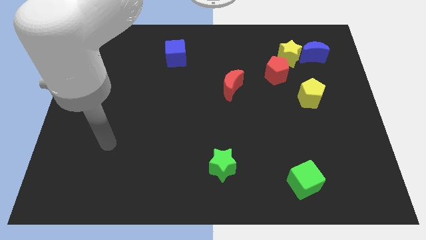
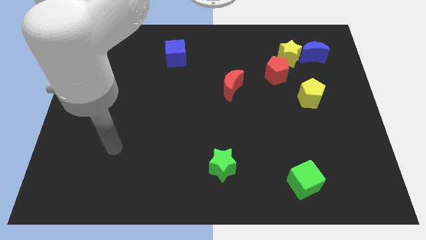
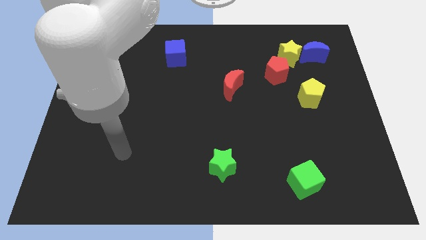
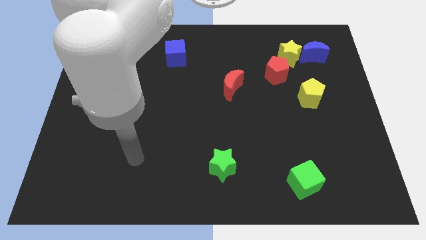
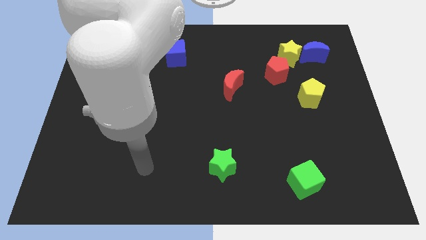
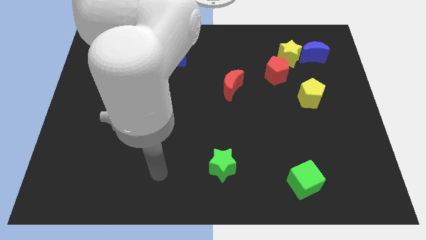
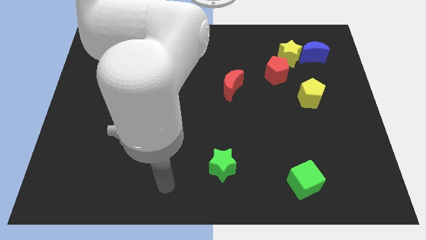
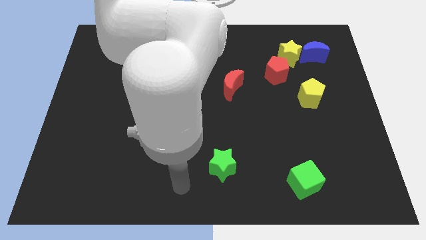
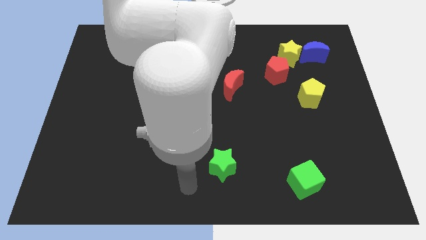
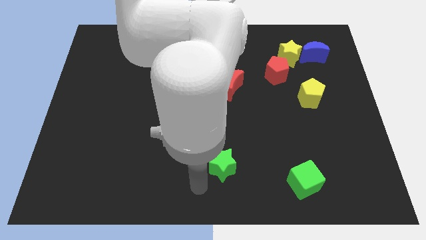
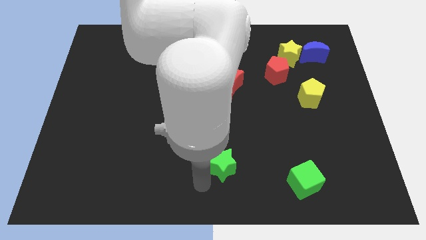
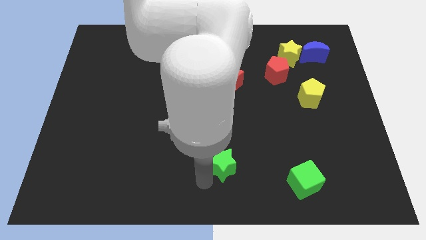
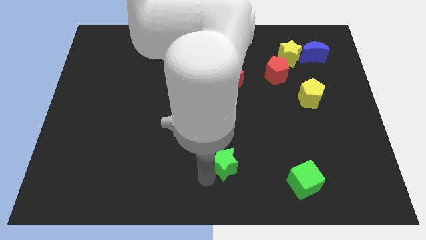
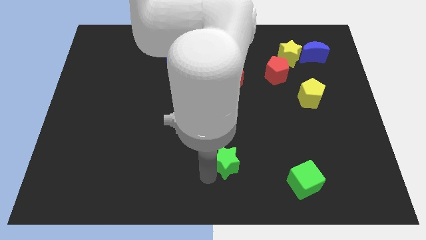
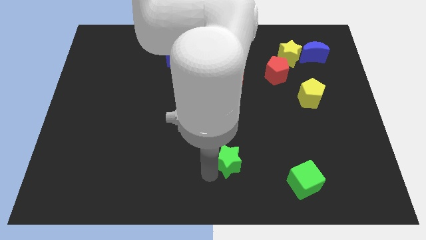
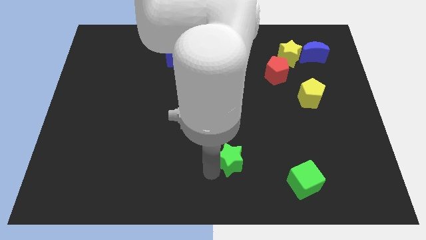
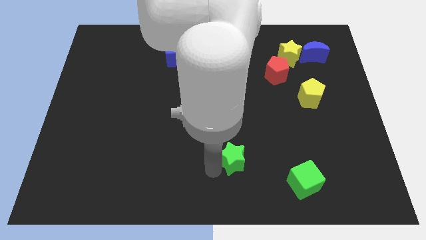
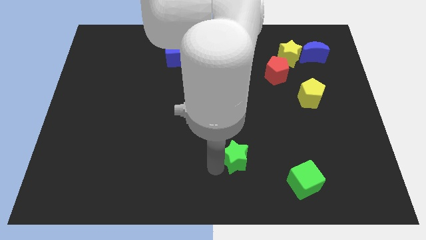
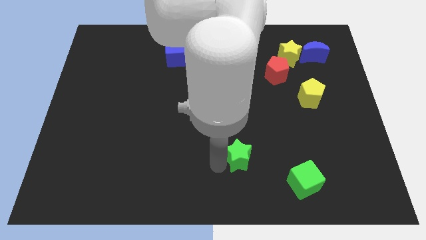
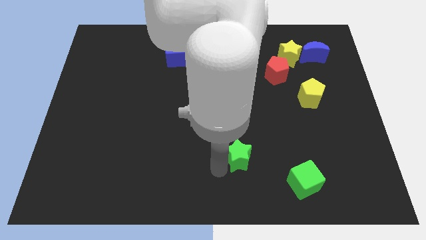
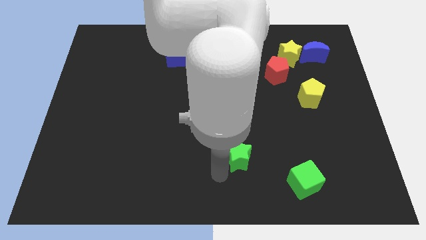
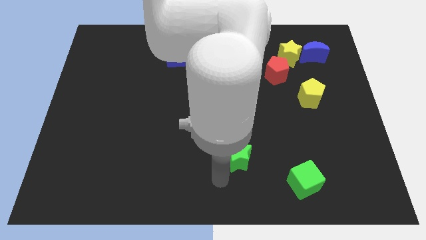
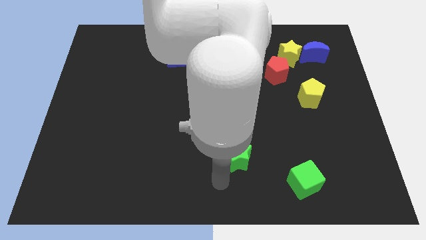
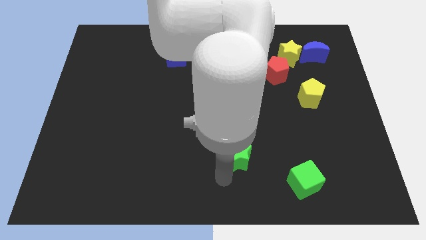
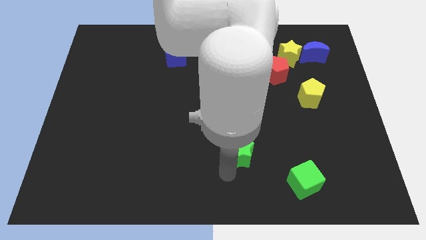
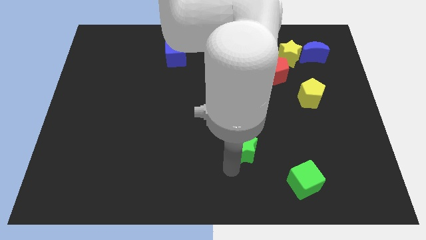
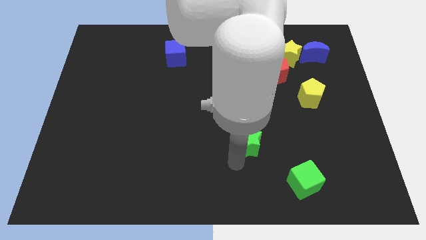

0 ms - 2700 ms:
slide the green star up and to the right slightly

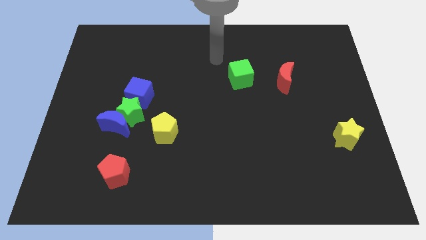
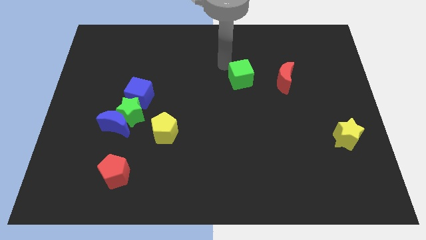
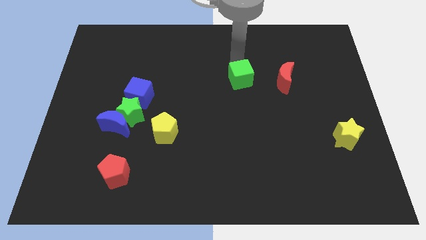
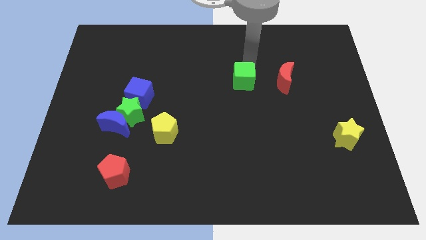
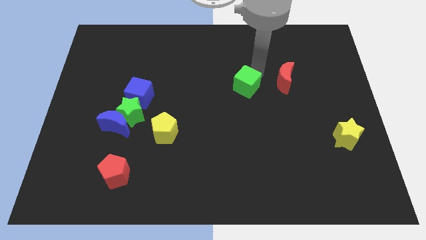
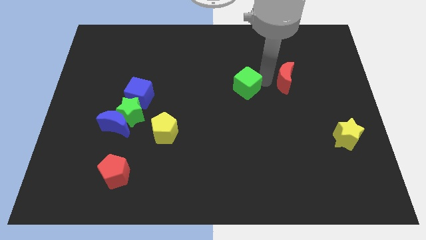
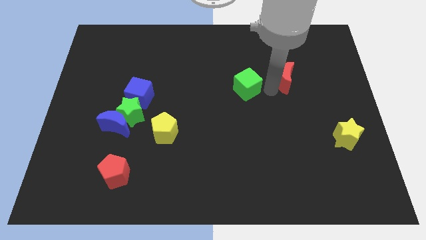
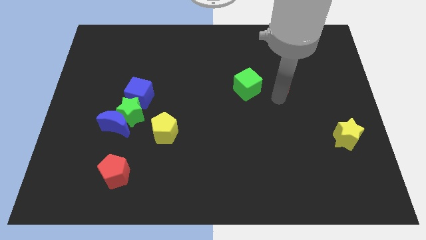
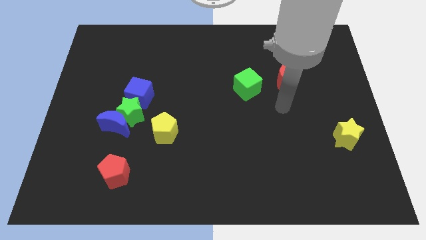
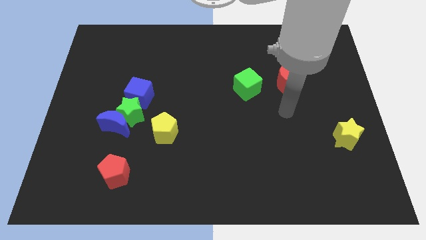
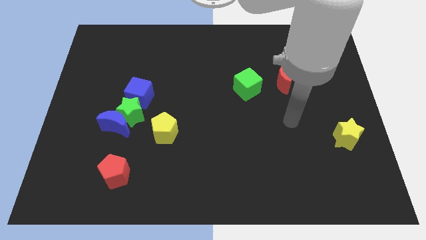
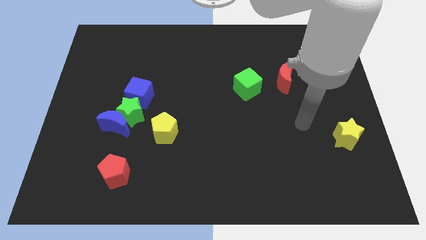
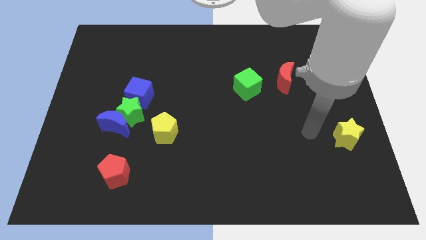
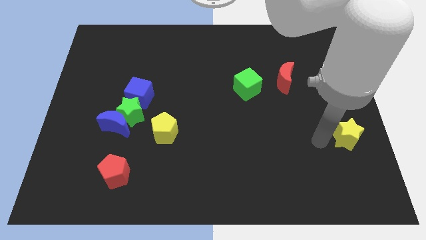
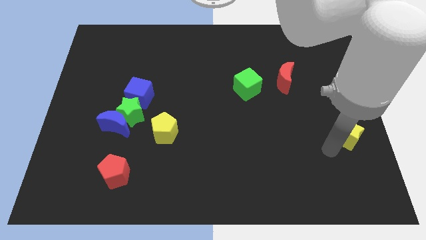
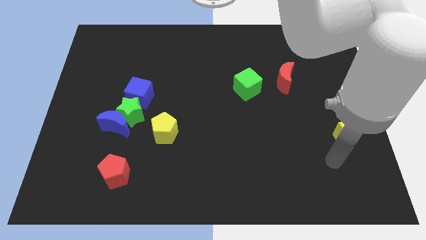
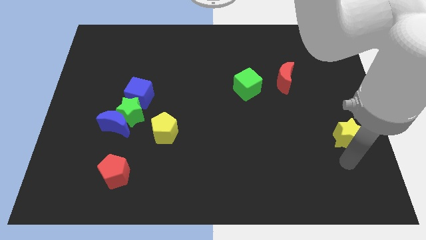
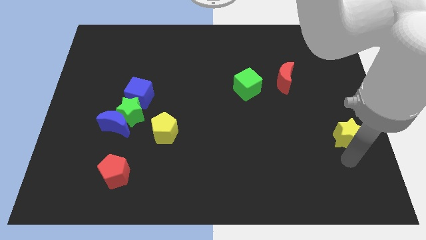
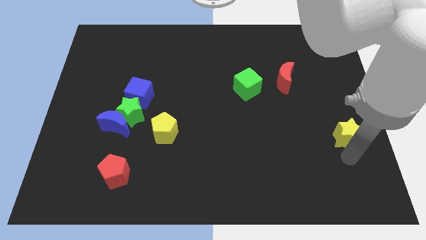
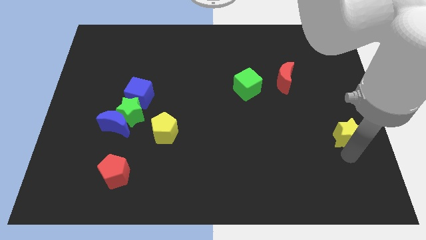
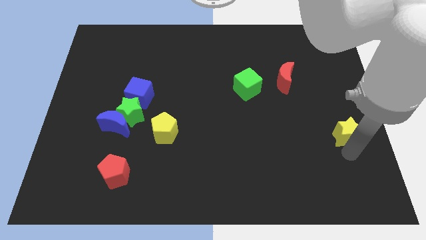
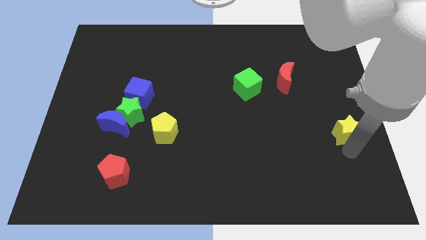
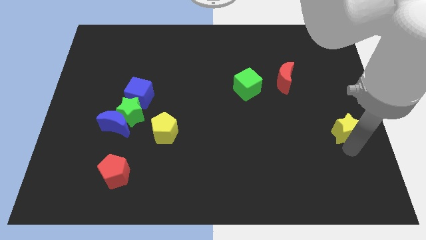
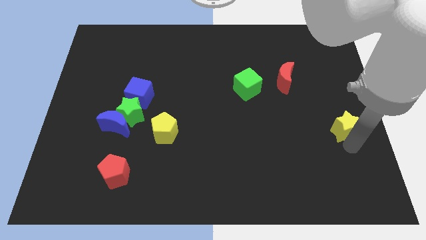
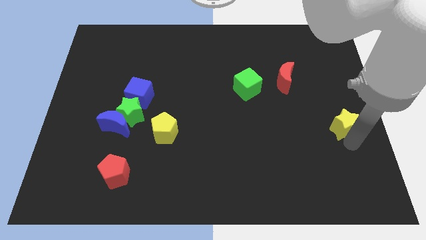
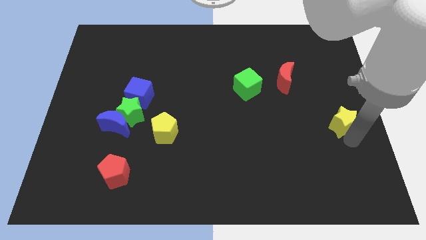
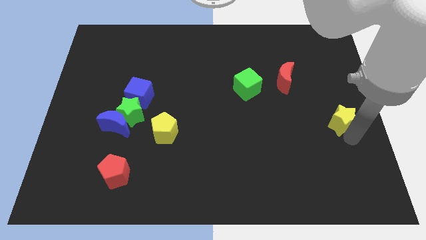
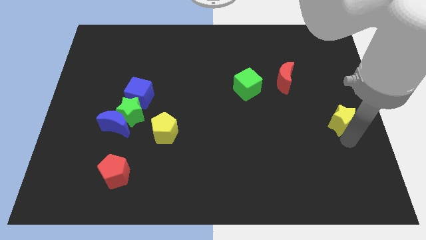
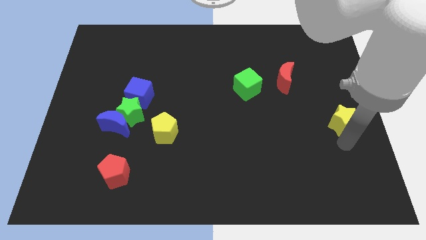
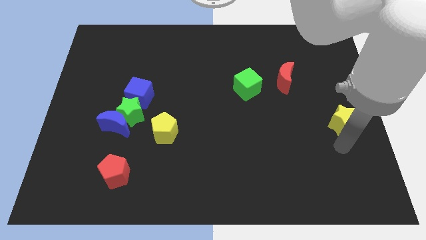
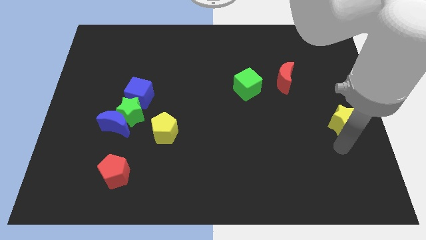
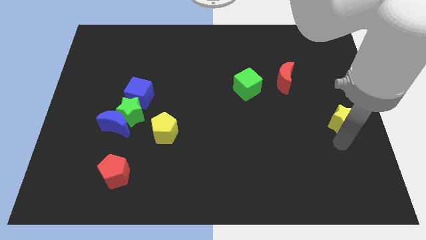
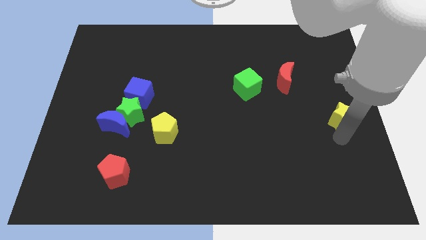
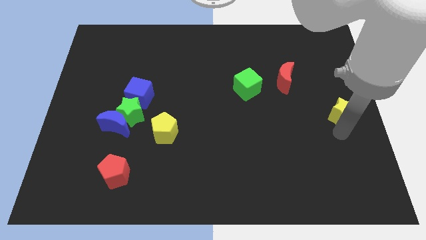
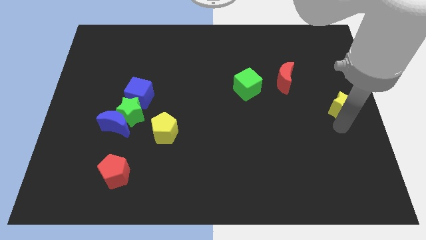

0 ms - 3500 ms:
push the yellow star upwards a little bit

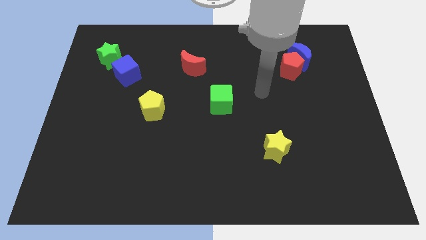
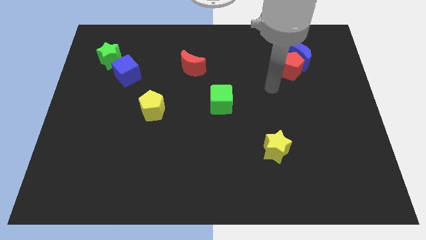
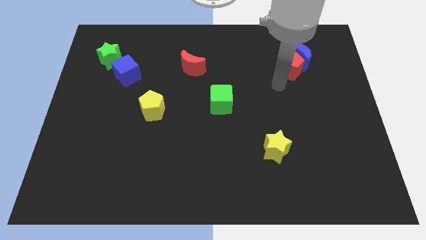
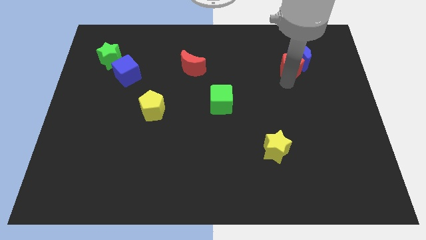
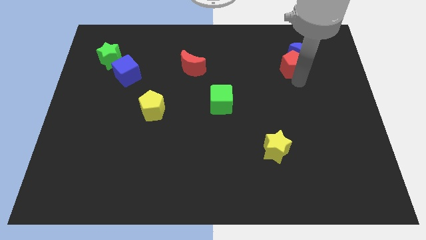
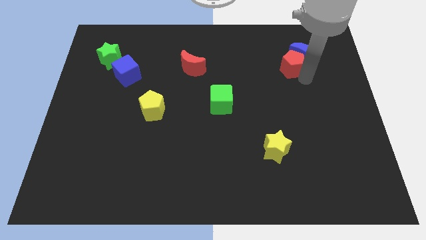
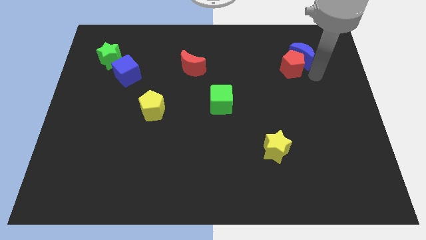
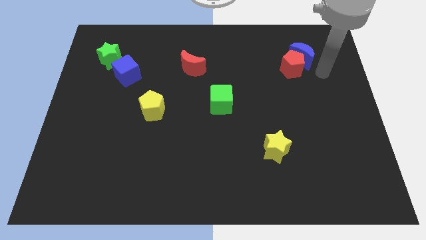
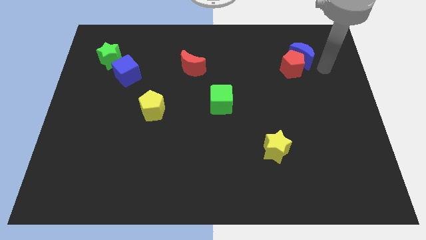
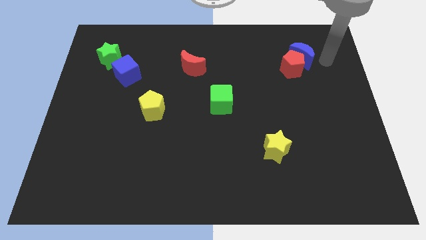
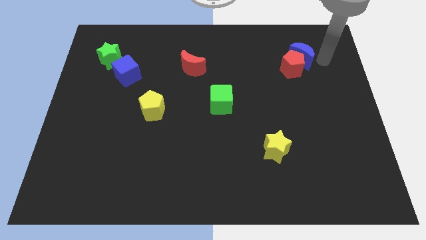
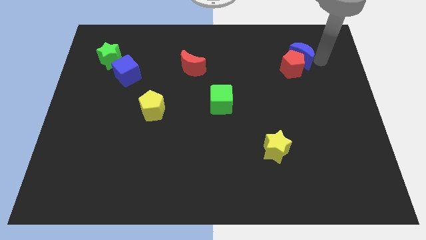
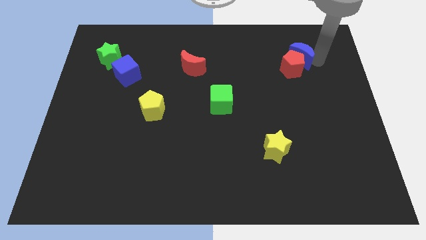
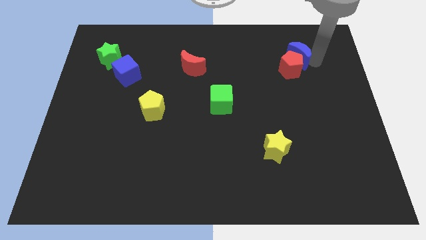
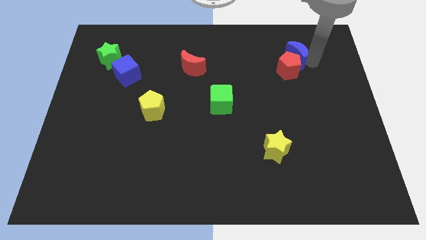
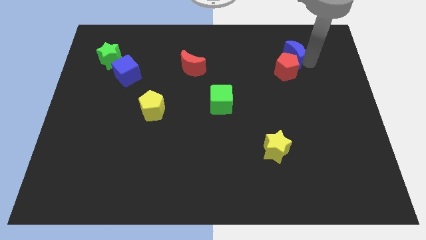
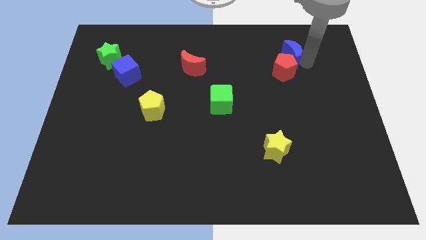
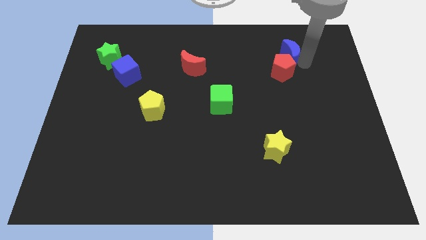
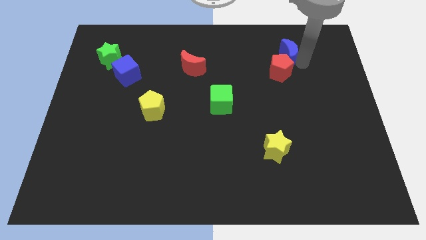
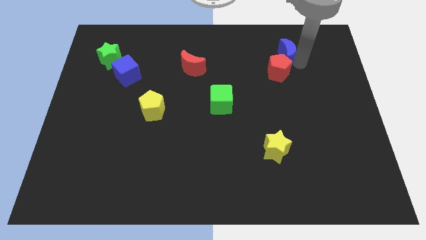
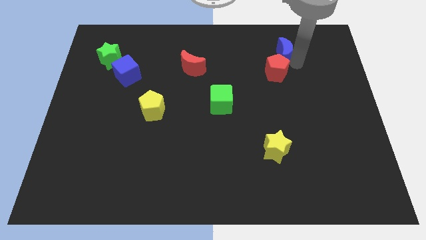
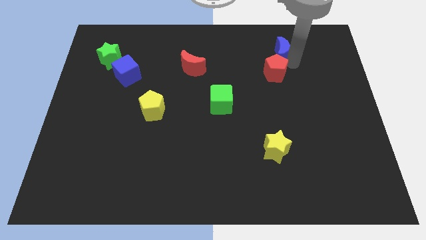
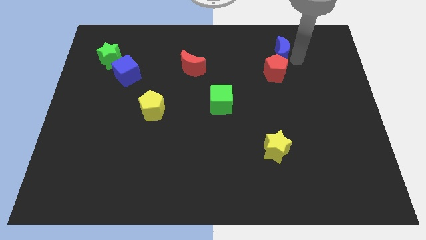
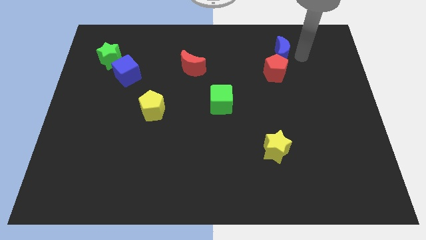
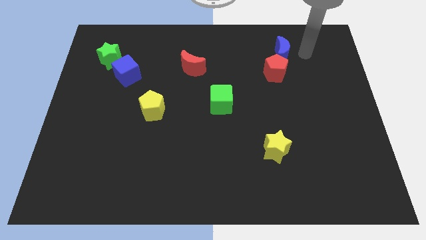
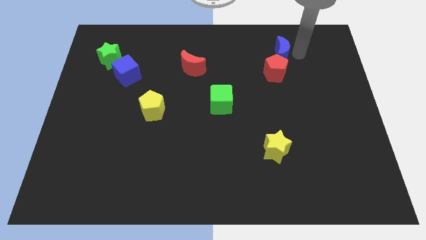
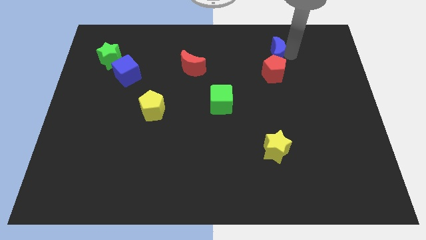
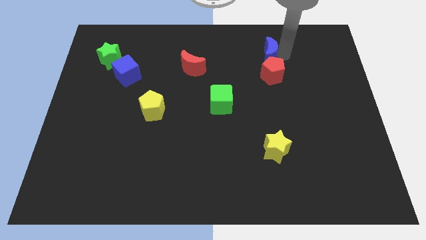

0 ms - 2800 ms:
slightly push the blue moon to the left
